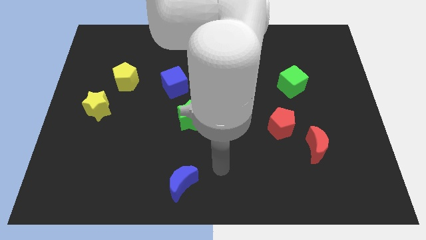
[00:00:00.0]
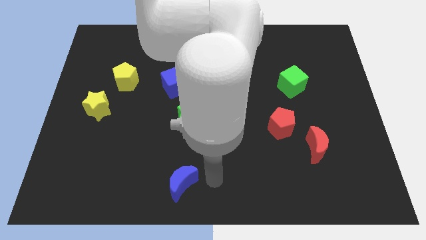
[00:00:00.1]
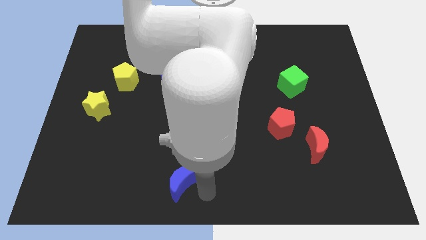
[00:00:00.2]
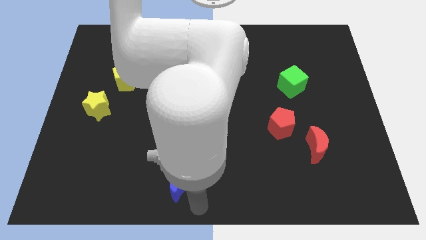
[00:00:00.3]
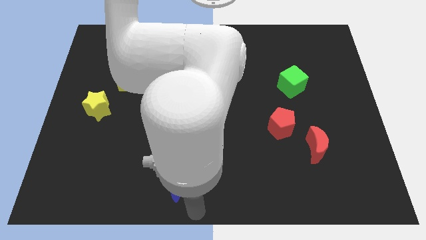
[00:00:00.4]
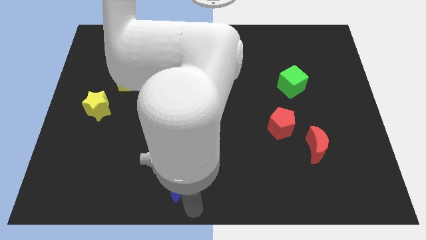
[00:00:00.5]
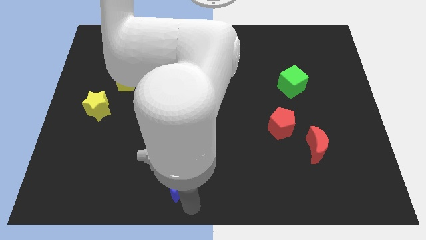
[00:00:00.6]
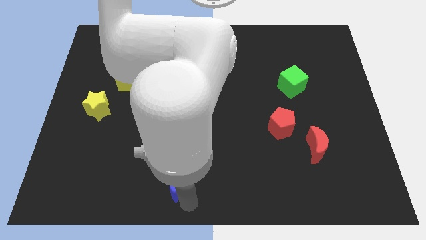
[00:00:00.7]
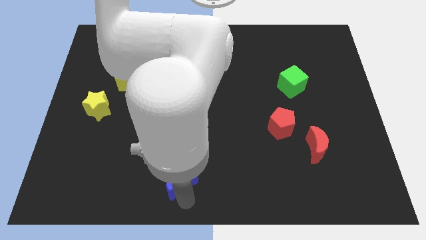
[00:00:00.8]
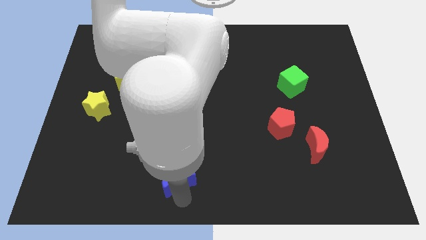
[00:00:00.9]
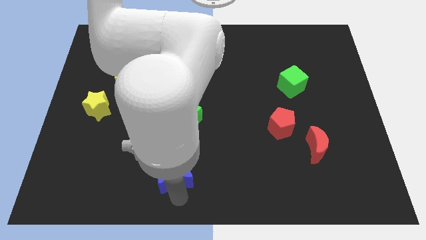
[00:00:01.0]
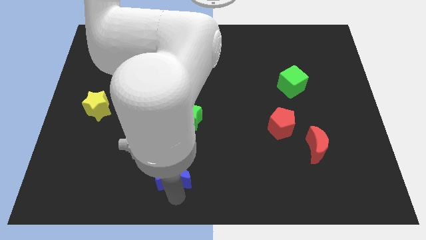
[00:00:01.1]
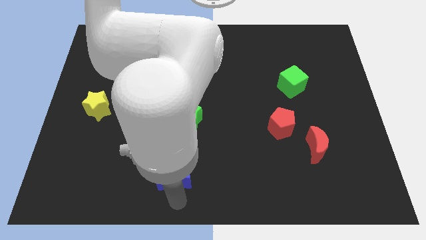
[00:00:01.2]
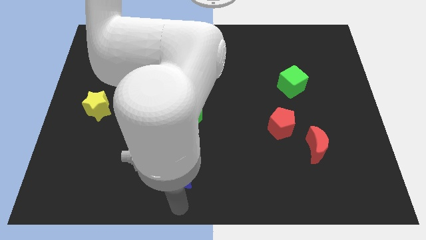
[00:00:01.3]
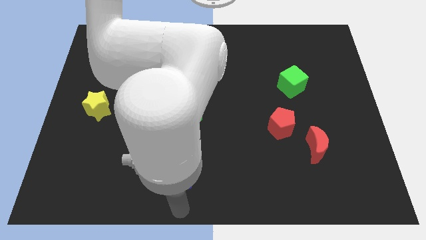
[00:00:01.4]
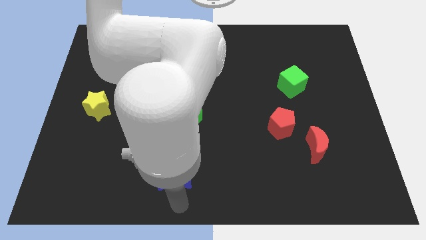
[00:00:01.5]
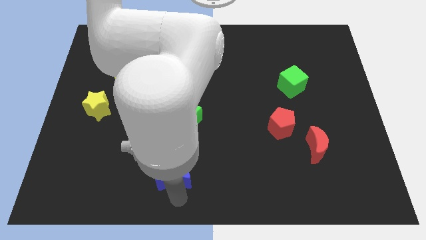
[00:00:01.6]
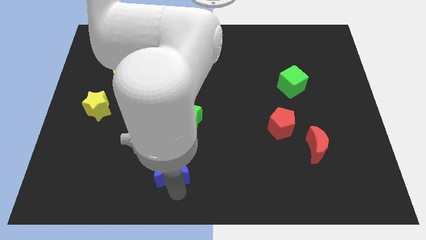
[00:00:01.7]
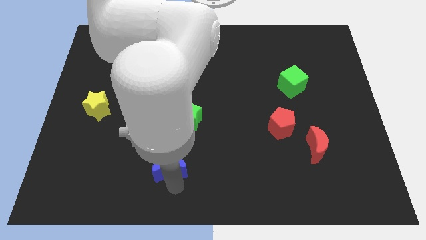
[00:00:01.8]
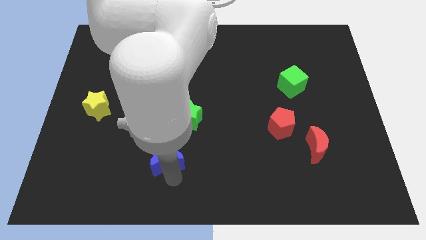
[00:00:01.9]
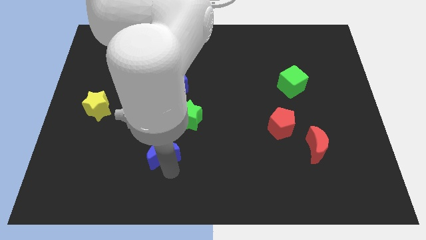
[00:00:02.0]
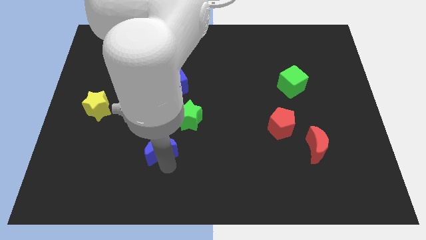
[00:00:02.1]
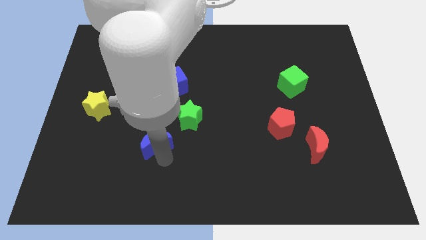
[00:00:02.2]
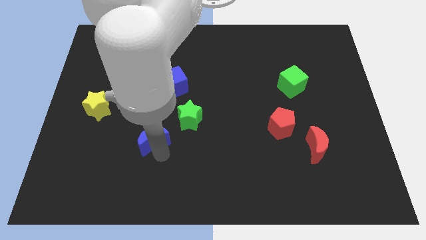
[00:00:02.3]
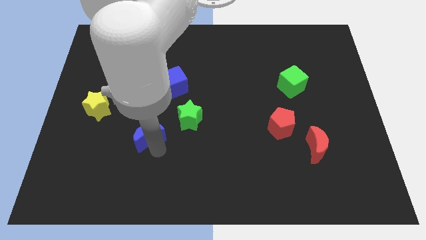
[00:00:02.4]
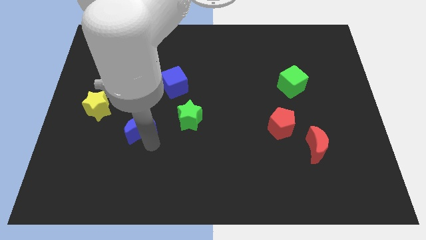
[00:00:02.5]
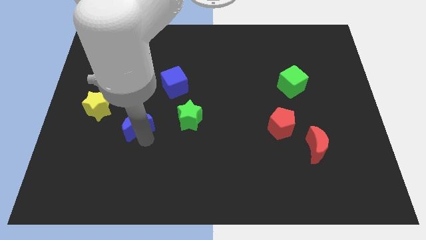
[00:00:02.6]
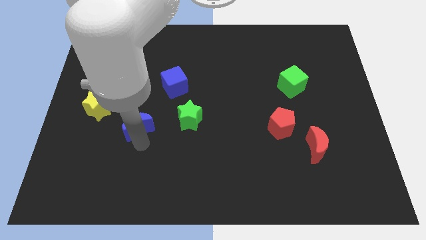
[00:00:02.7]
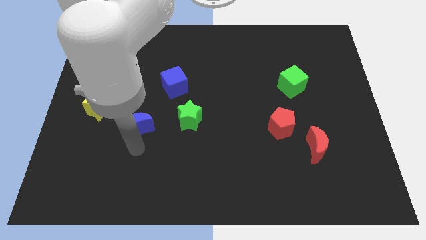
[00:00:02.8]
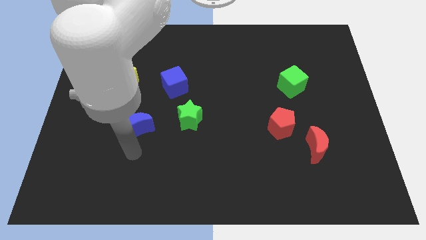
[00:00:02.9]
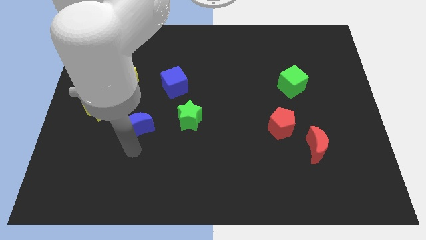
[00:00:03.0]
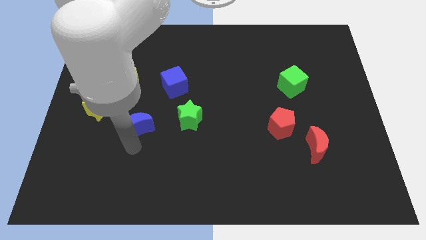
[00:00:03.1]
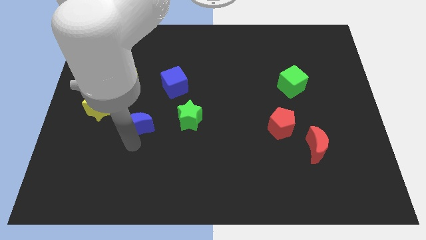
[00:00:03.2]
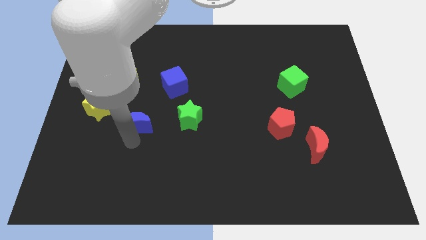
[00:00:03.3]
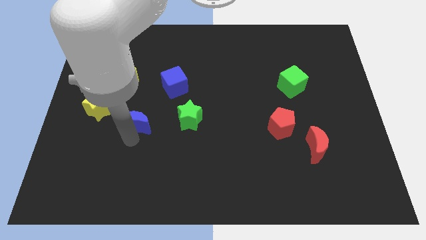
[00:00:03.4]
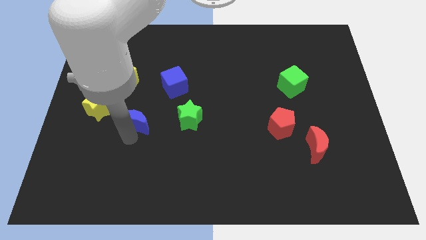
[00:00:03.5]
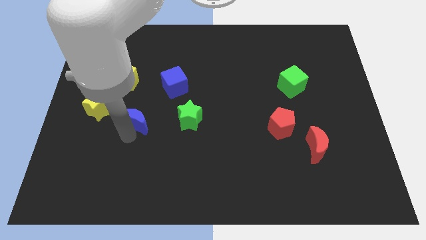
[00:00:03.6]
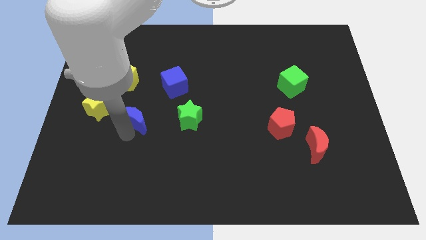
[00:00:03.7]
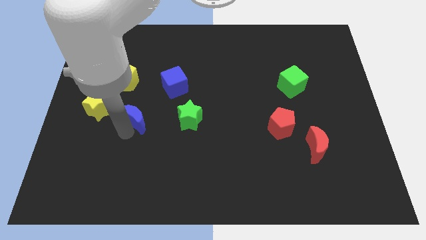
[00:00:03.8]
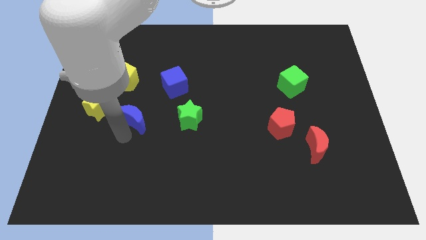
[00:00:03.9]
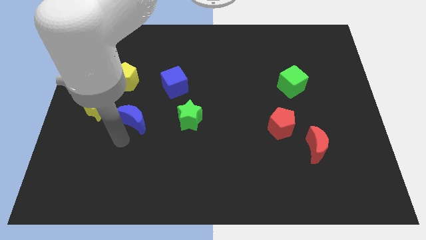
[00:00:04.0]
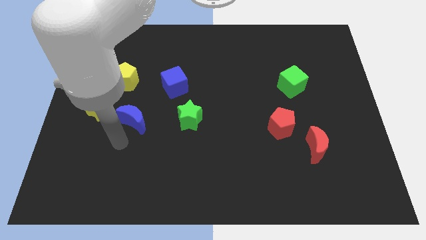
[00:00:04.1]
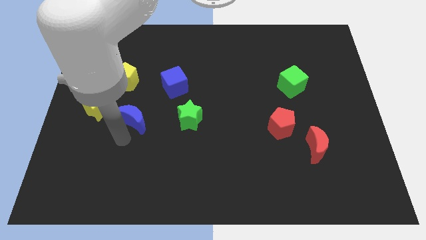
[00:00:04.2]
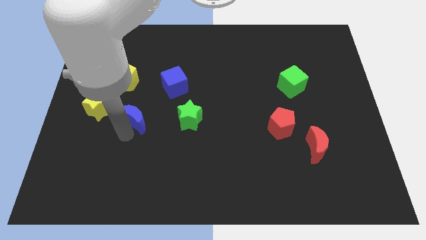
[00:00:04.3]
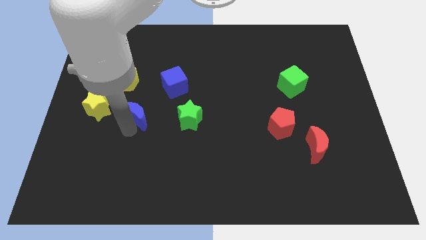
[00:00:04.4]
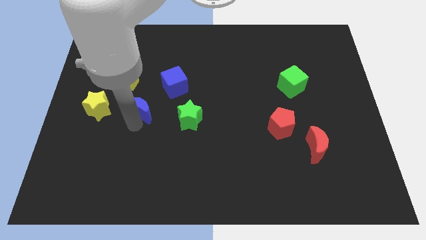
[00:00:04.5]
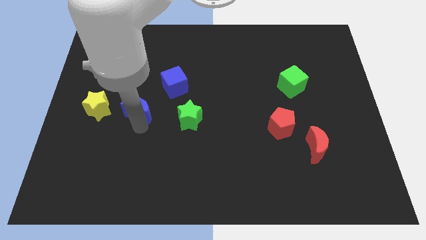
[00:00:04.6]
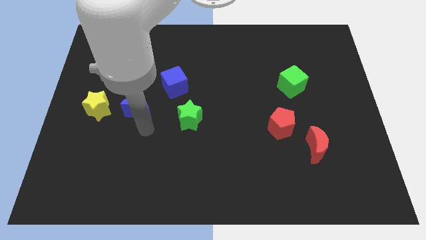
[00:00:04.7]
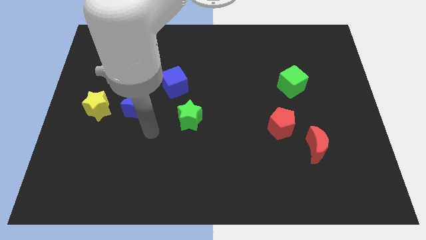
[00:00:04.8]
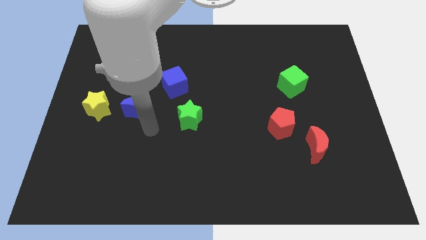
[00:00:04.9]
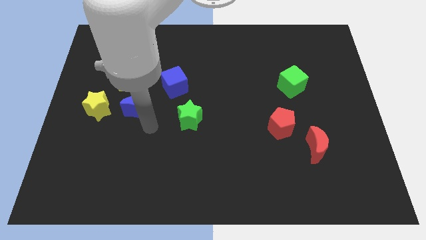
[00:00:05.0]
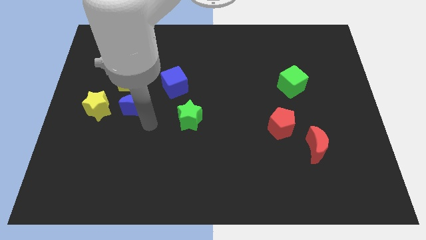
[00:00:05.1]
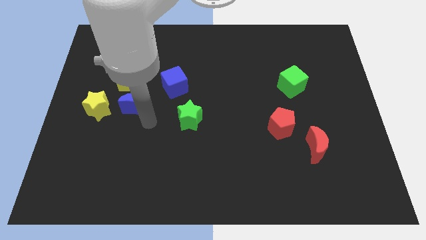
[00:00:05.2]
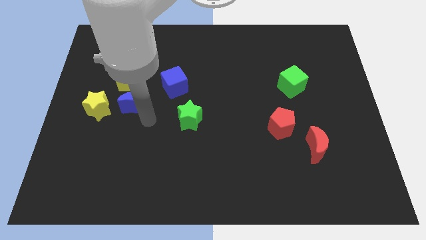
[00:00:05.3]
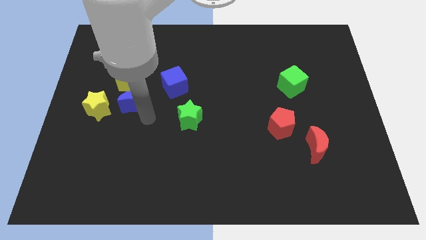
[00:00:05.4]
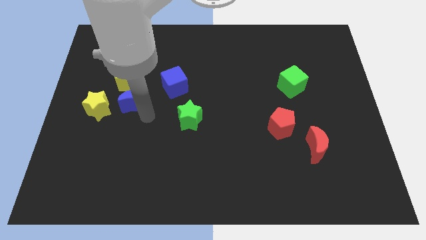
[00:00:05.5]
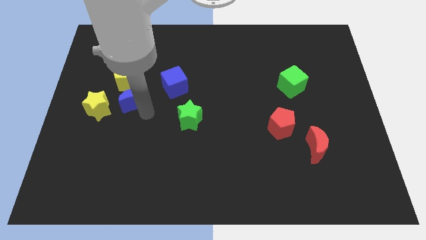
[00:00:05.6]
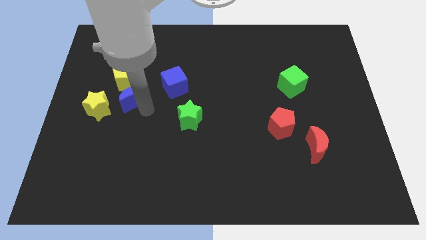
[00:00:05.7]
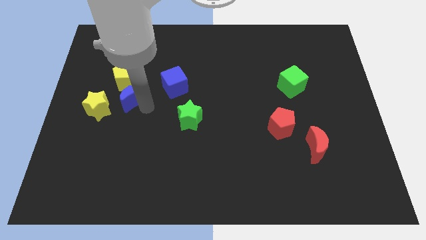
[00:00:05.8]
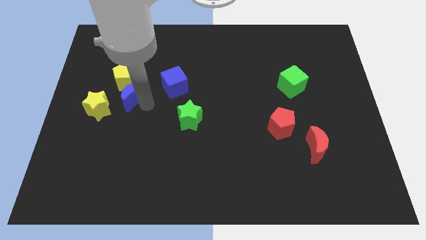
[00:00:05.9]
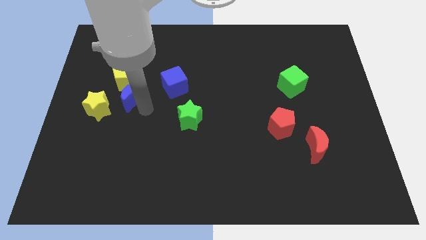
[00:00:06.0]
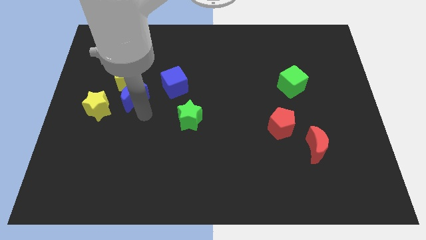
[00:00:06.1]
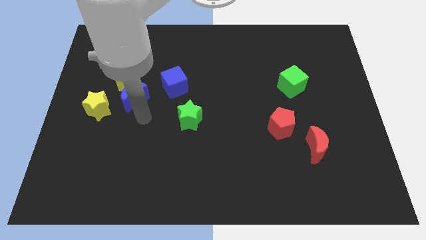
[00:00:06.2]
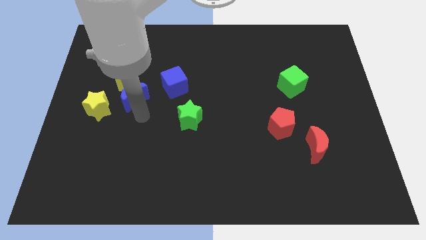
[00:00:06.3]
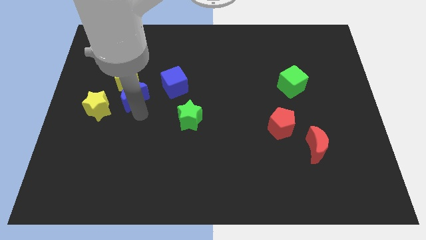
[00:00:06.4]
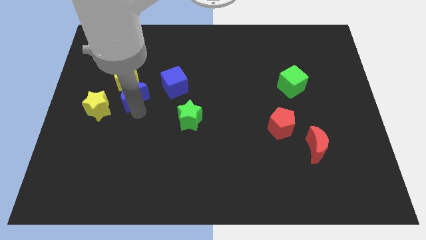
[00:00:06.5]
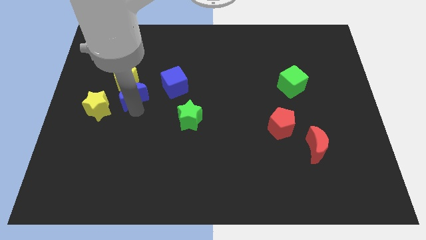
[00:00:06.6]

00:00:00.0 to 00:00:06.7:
put the blue moon towards the yellow pentagon
